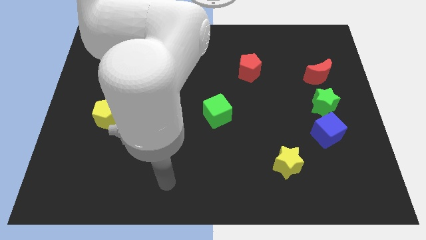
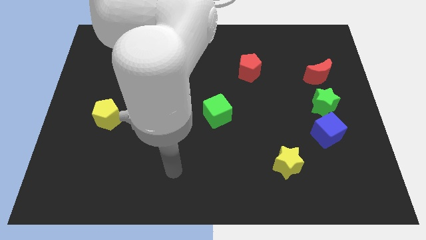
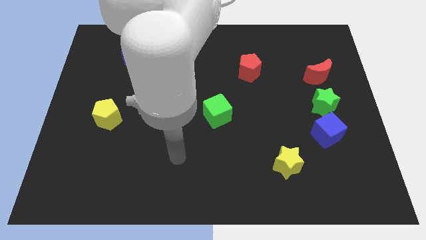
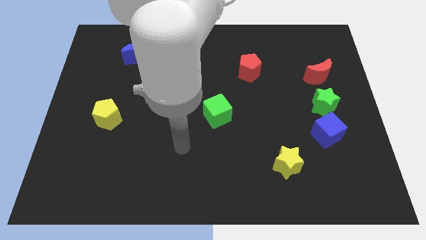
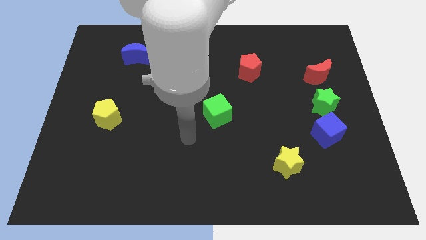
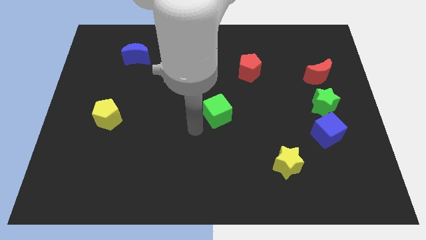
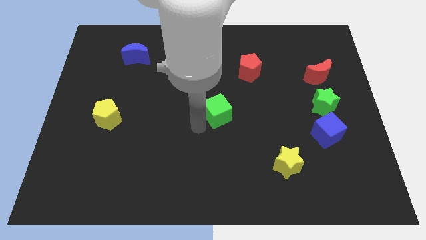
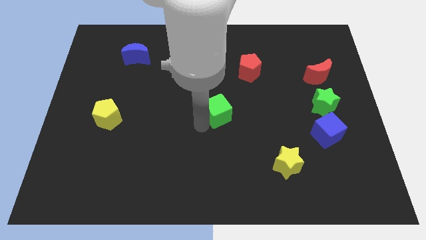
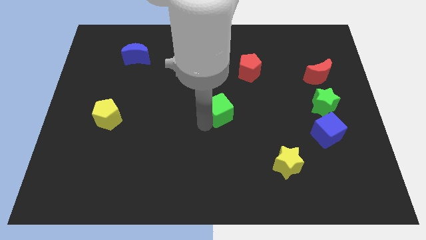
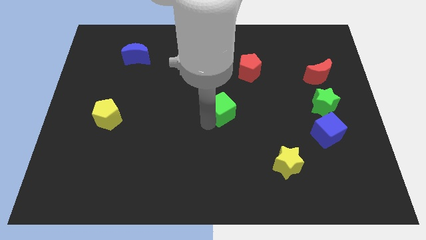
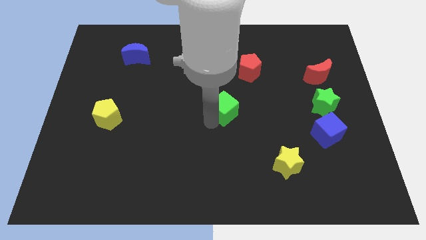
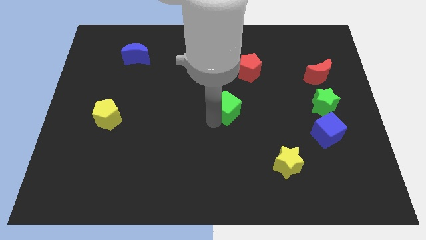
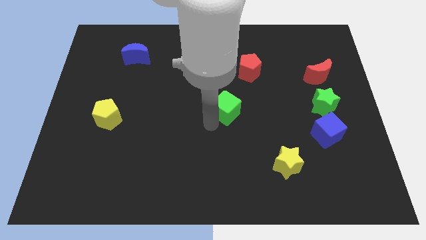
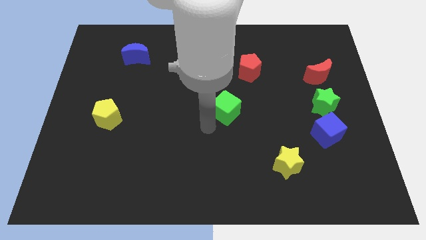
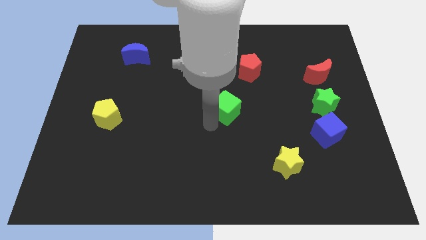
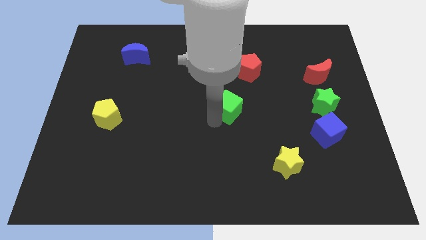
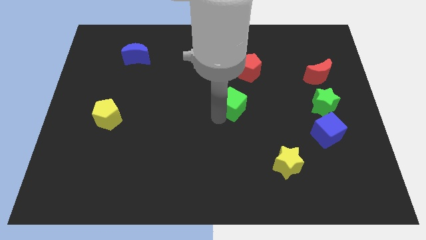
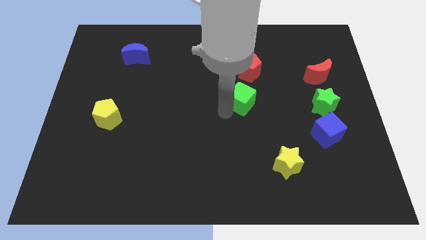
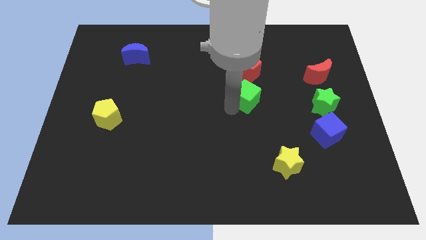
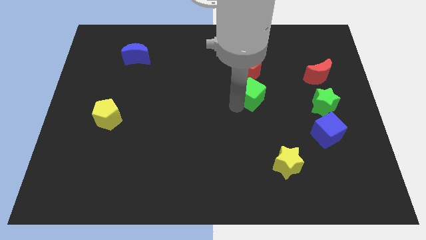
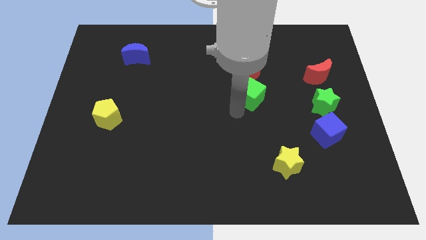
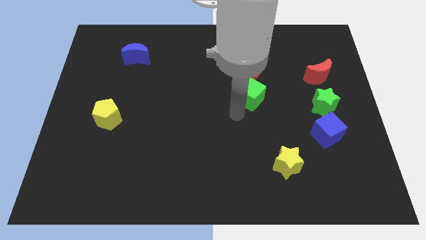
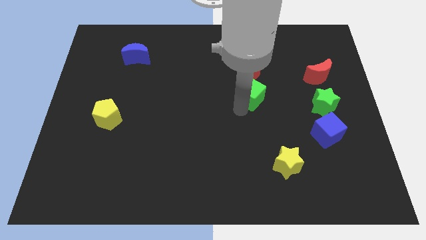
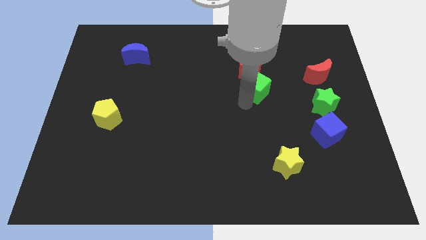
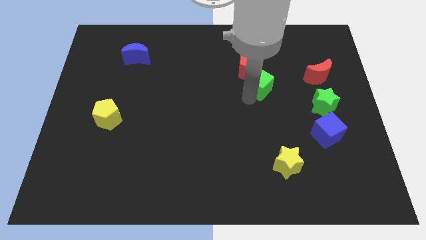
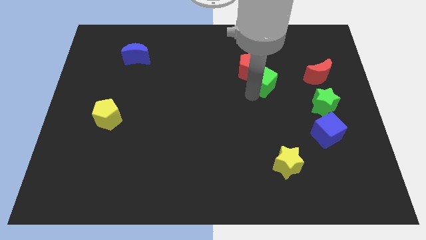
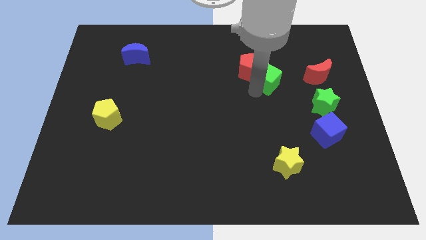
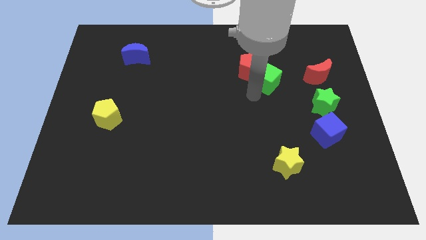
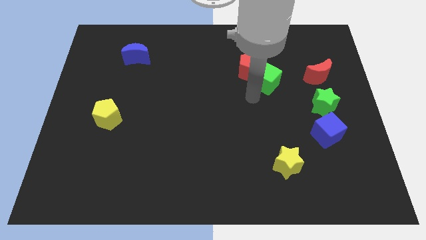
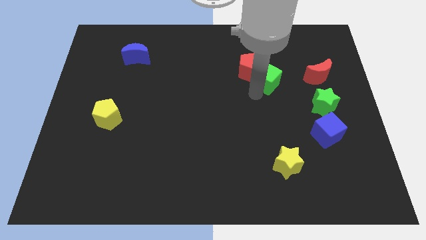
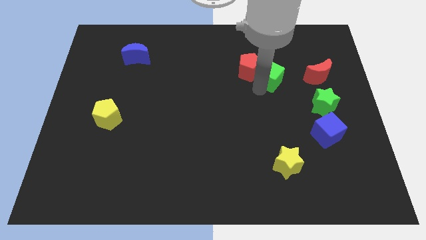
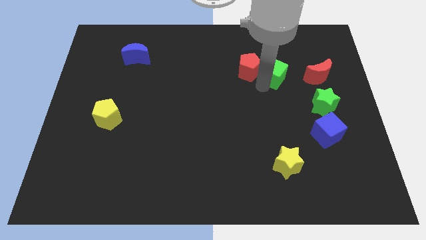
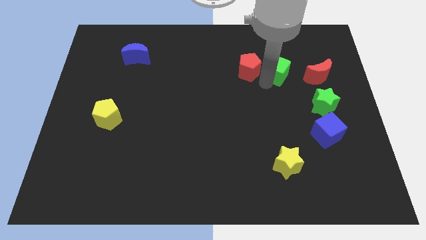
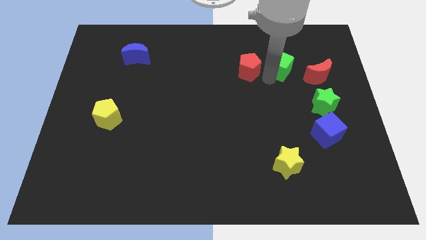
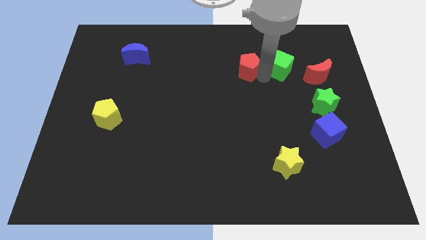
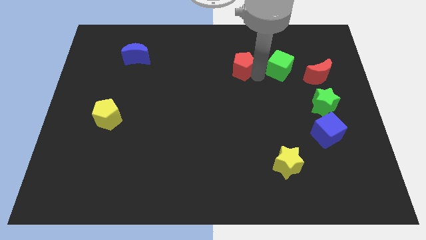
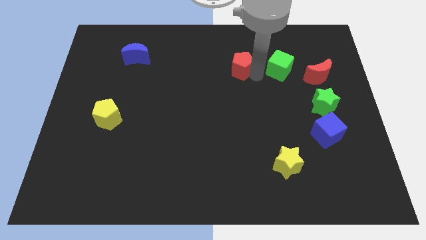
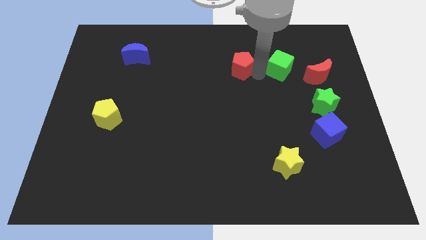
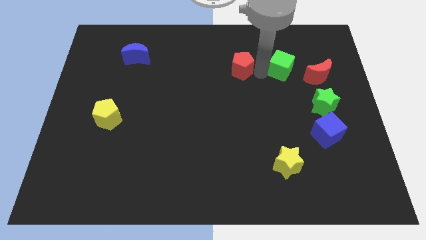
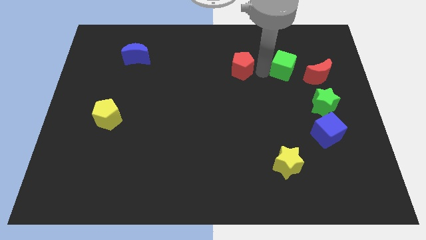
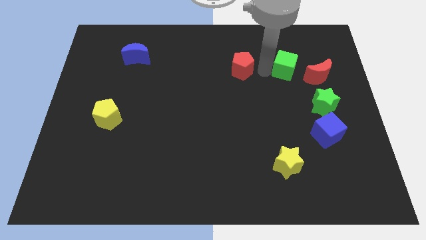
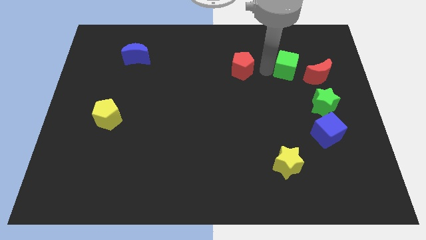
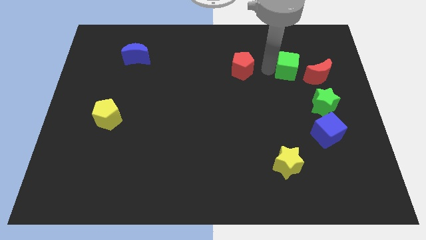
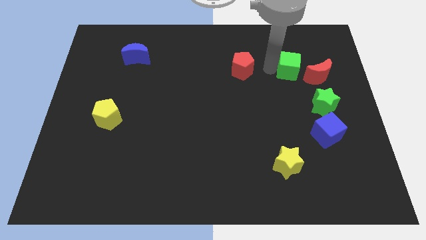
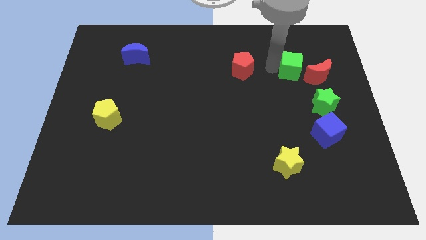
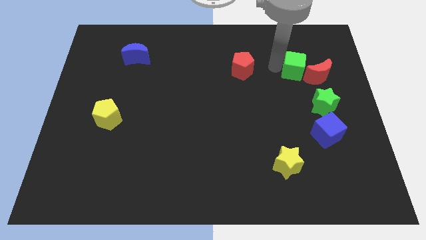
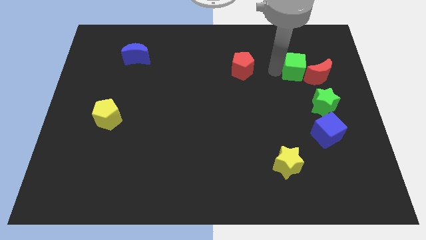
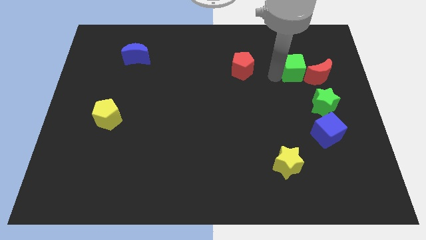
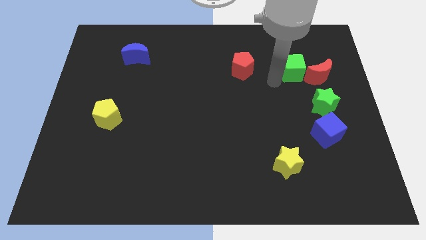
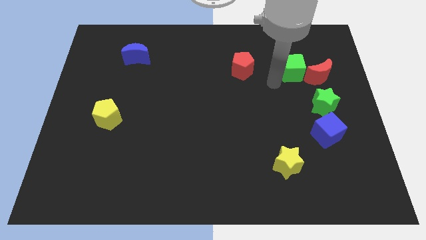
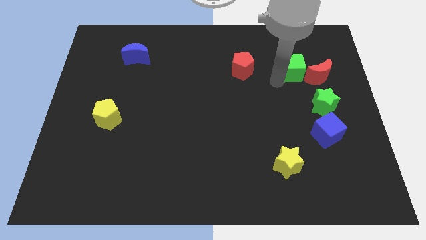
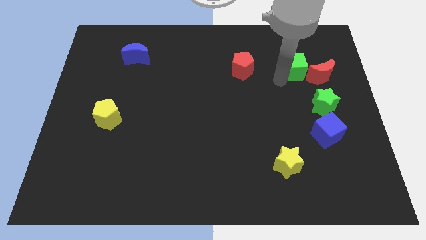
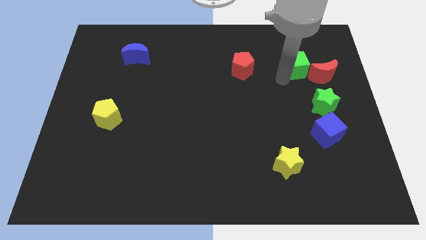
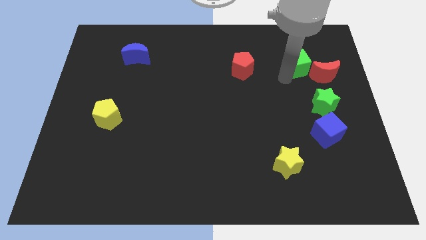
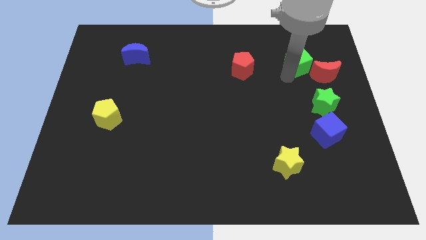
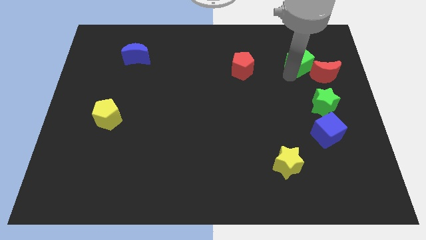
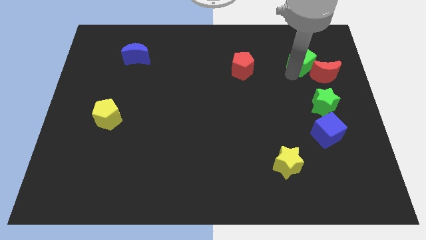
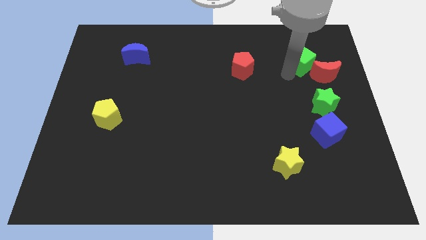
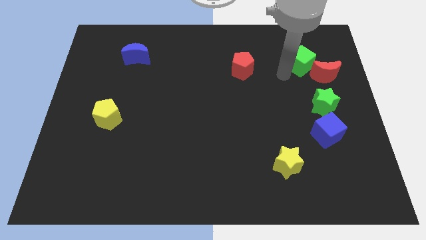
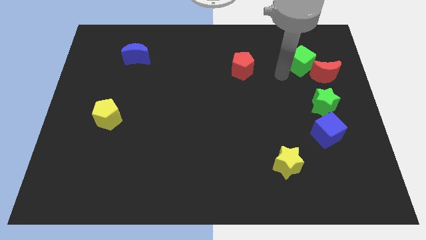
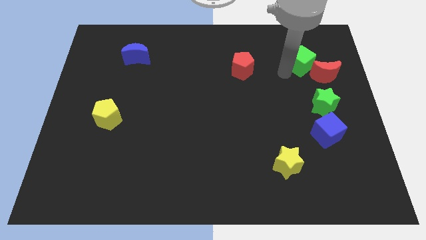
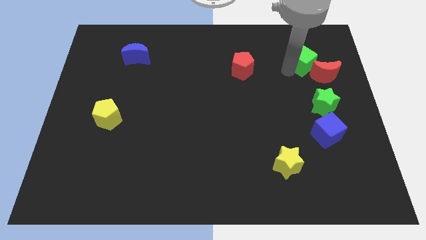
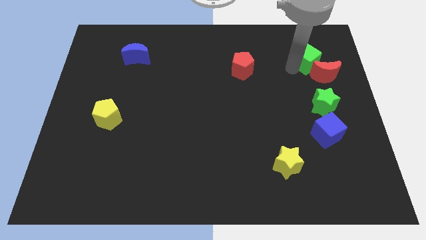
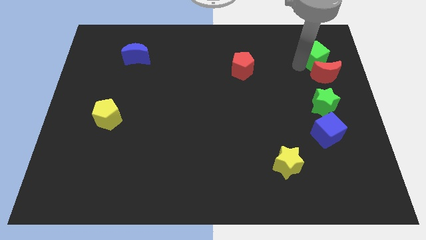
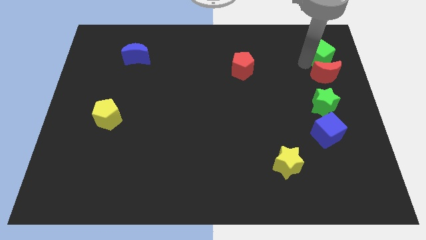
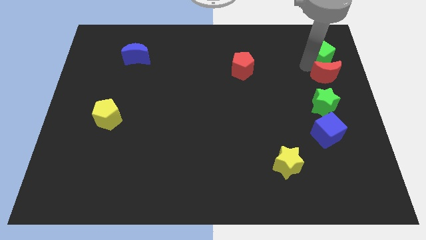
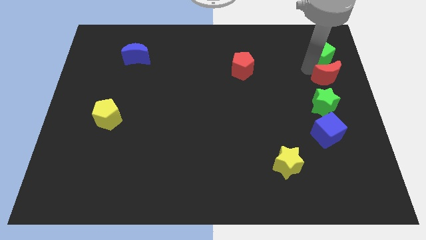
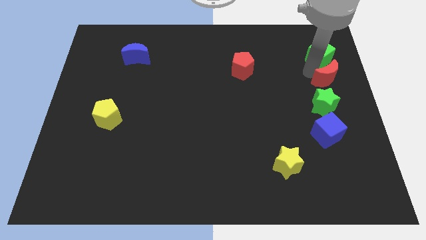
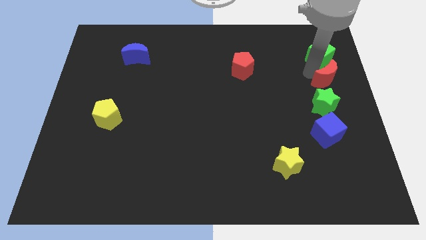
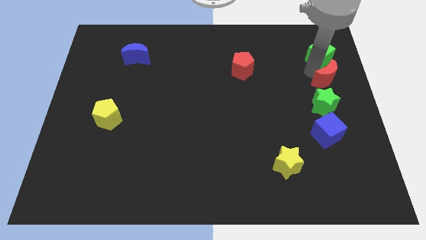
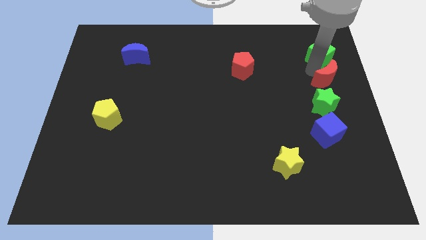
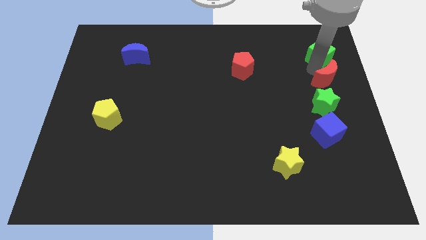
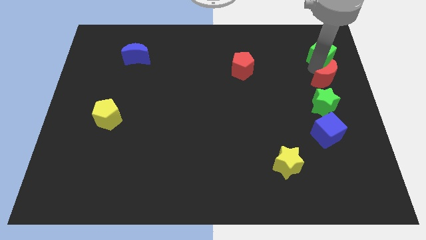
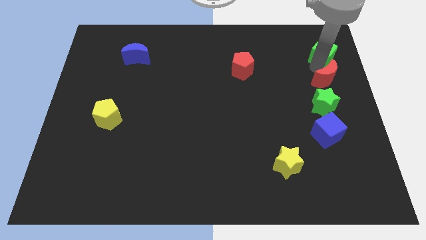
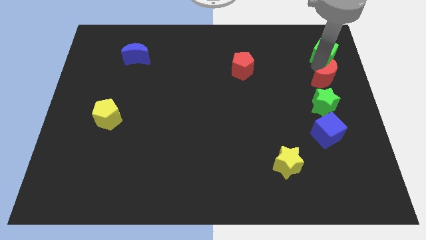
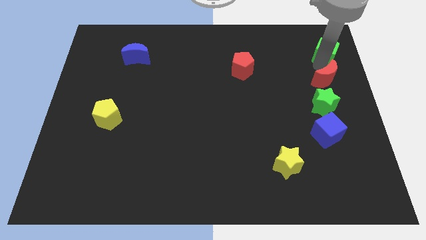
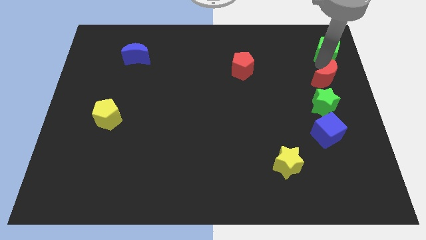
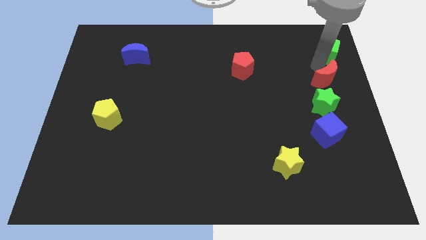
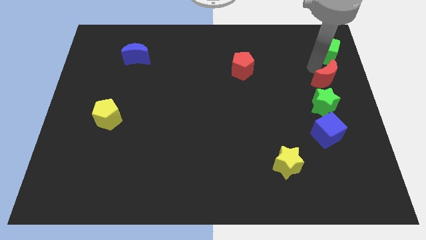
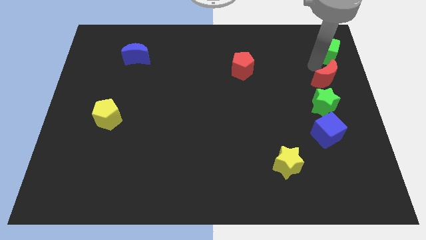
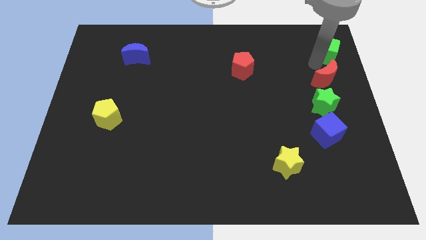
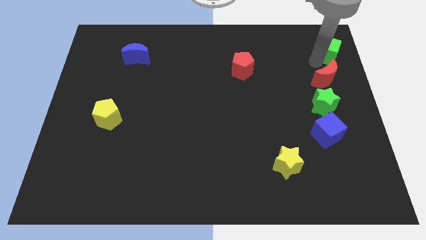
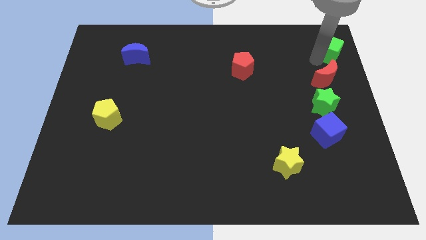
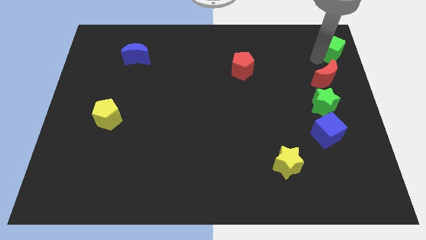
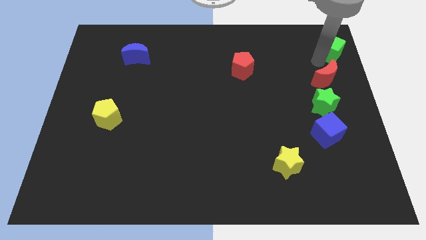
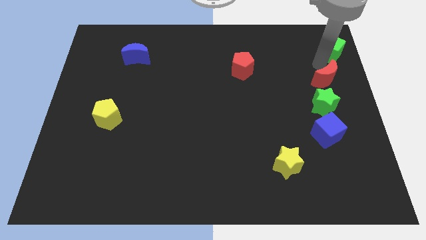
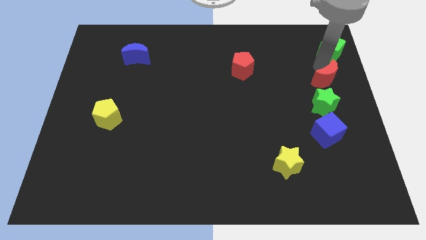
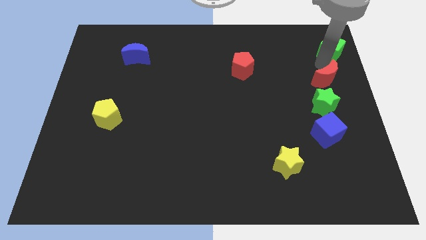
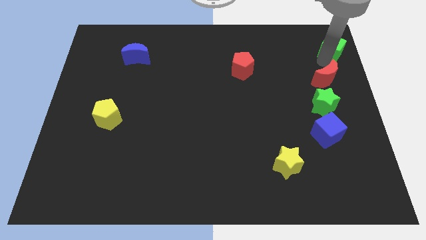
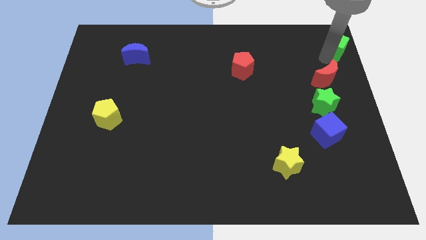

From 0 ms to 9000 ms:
move the green cube to the upper right corner
